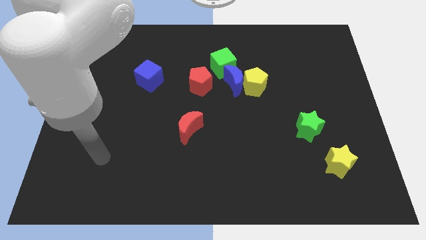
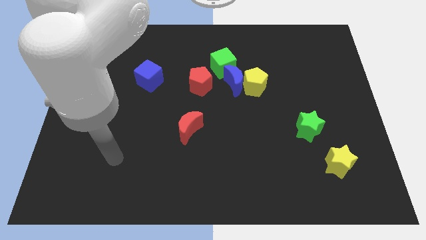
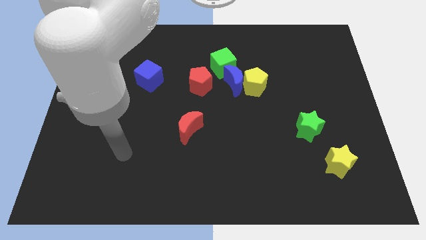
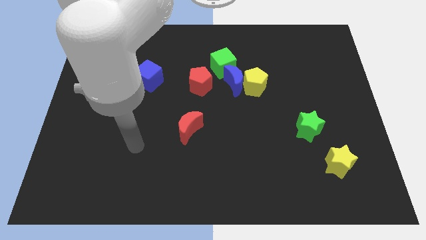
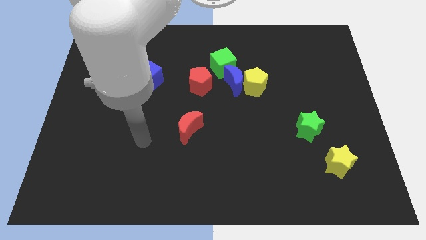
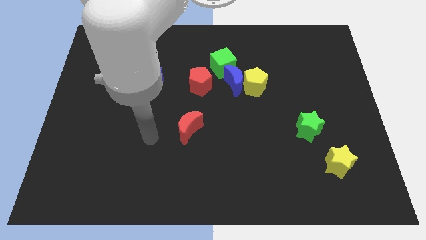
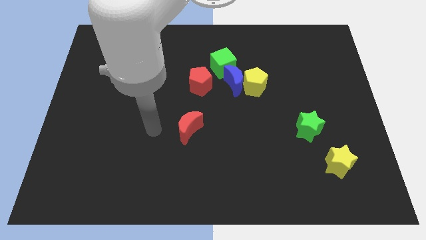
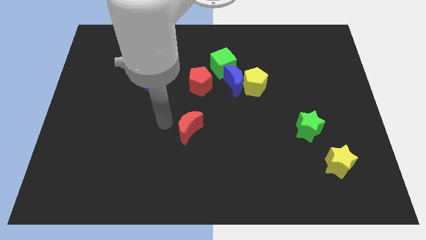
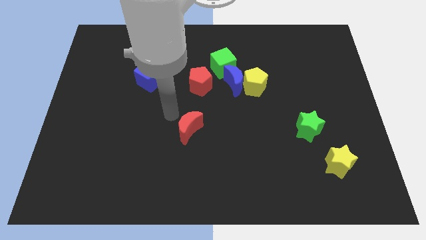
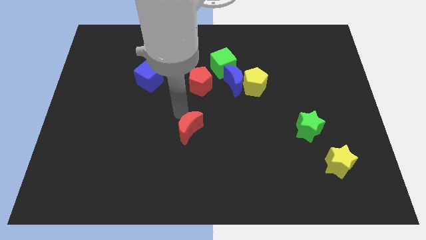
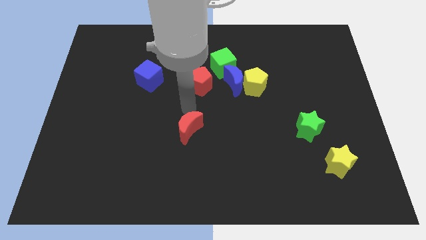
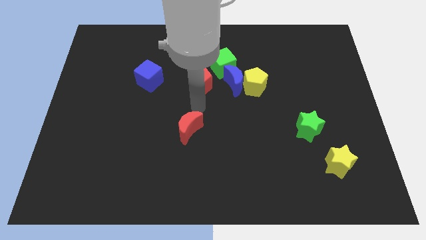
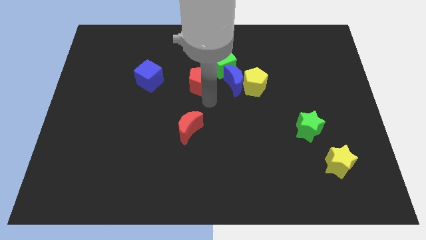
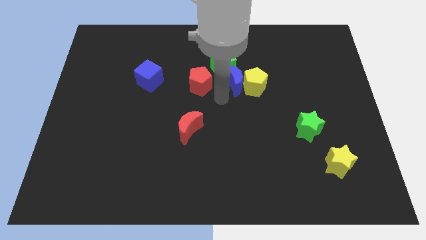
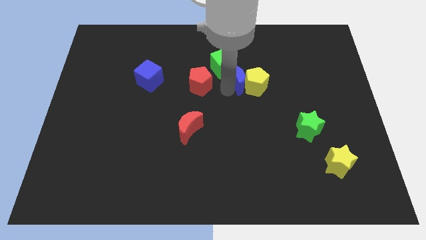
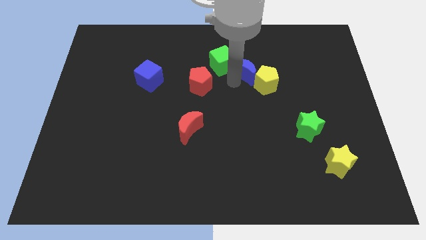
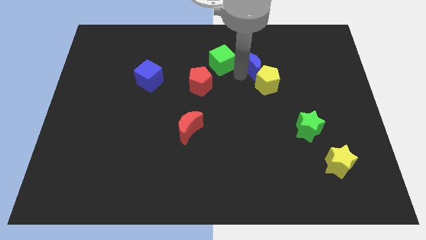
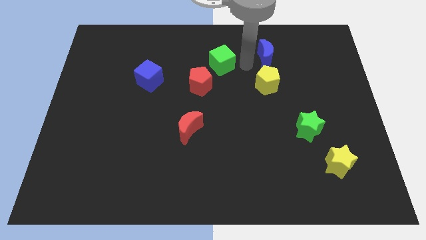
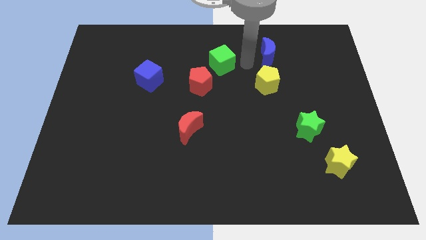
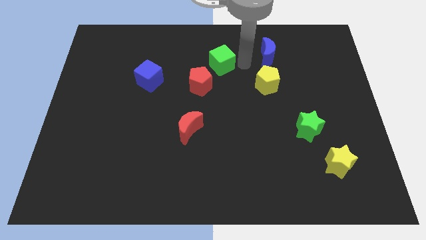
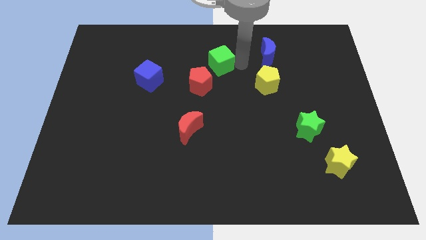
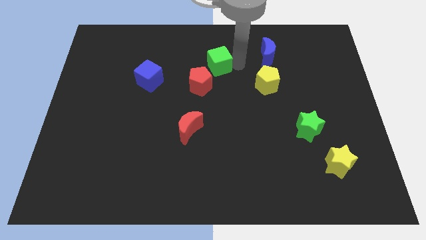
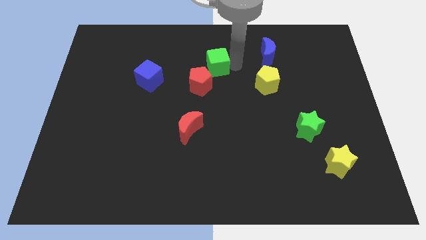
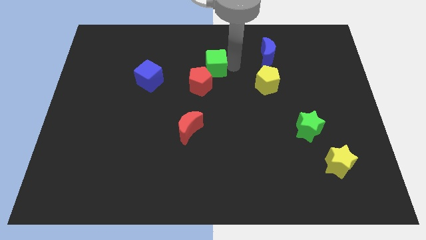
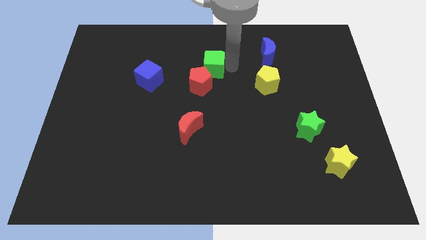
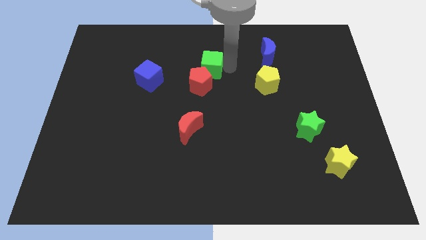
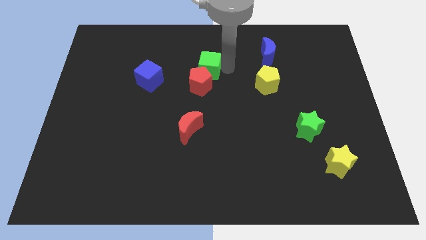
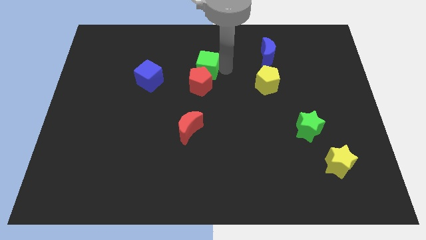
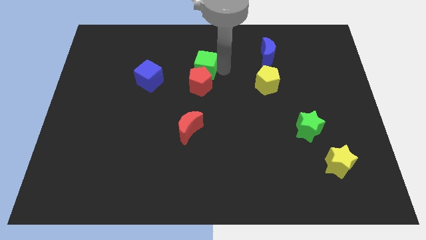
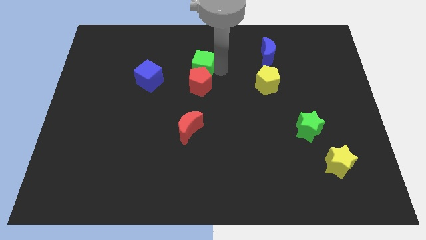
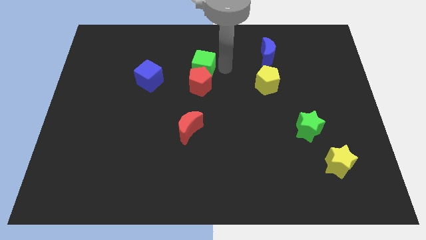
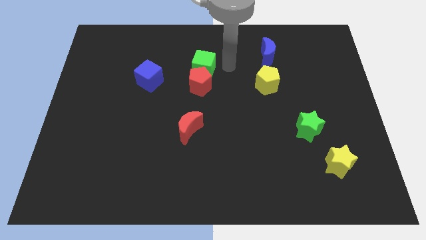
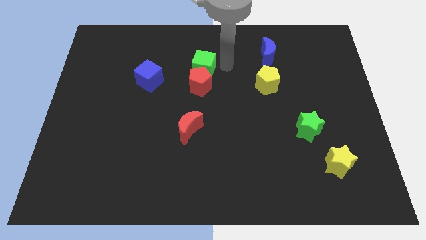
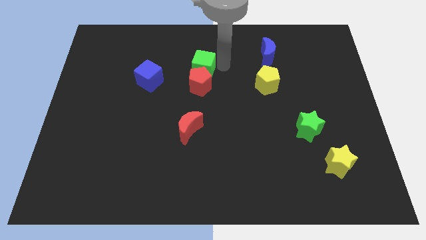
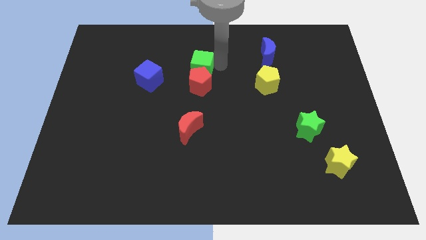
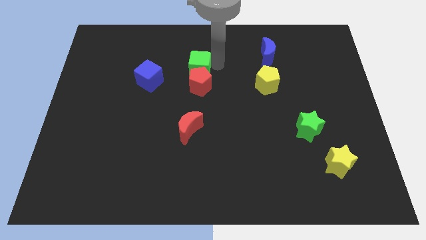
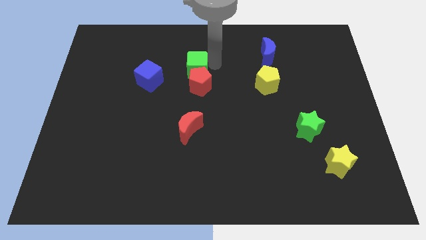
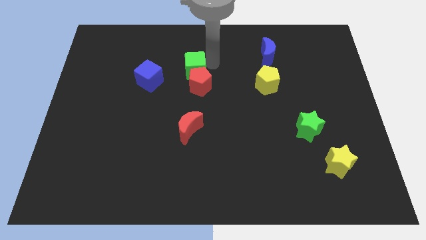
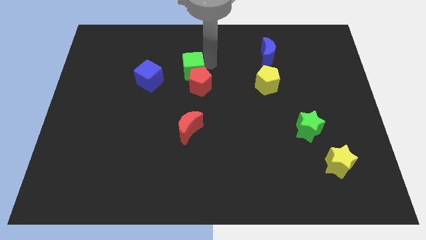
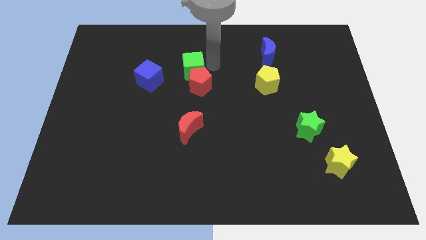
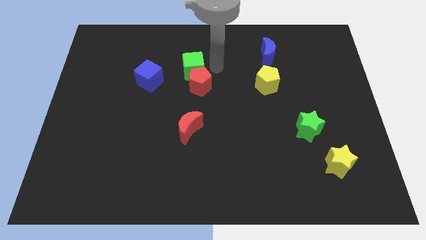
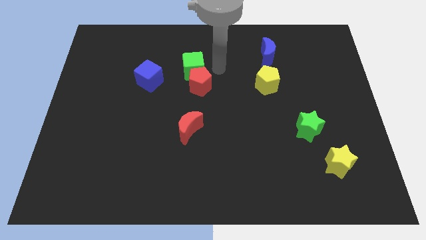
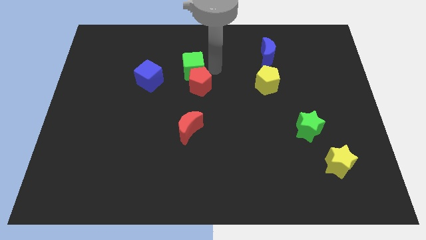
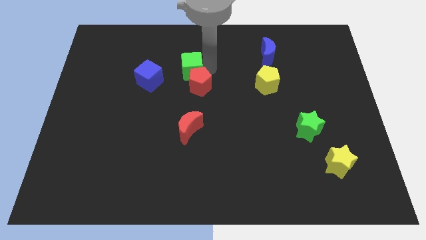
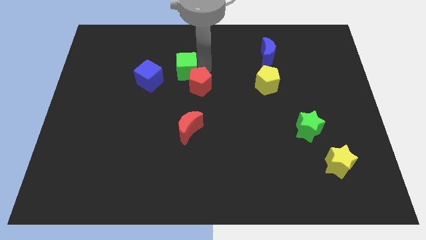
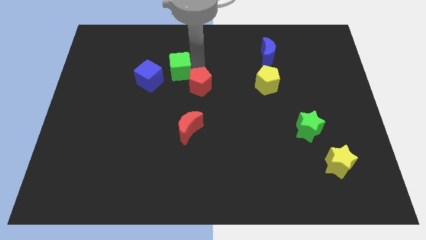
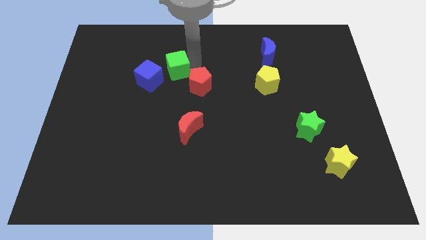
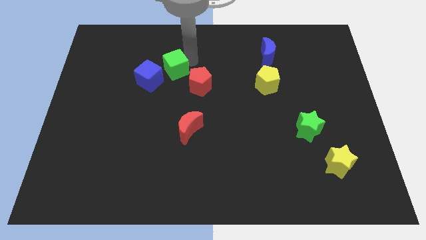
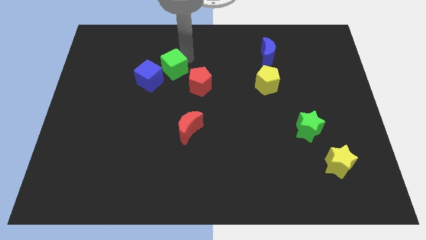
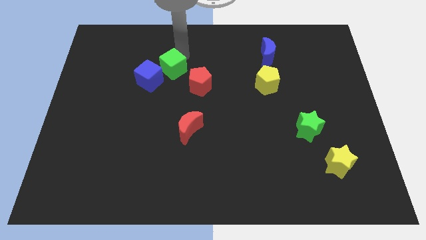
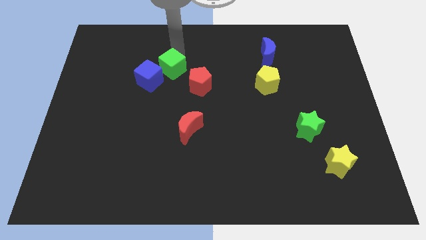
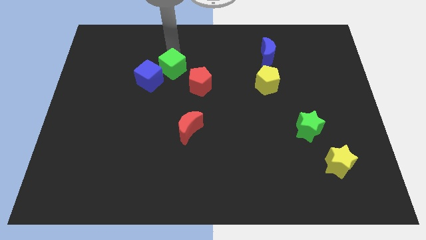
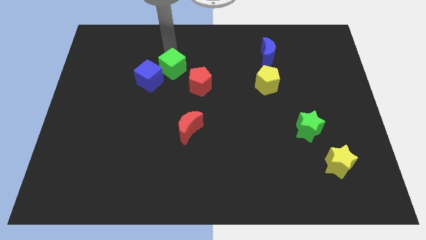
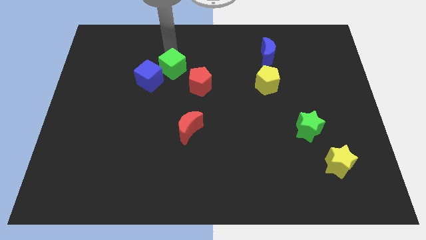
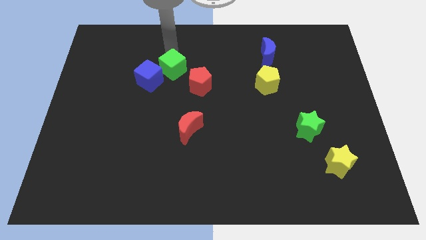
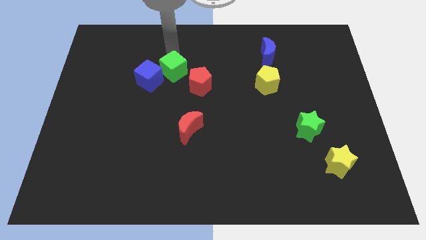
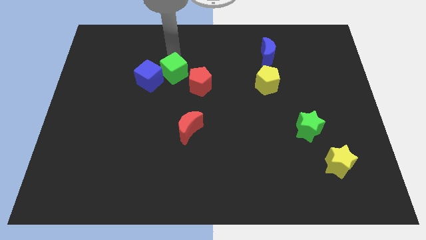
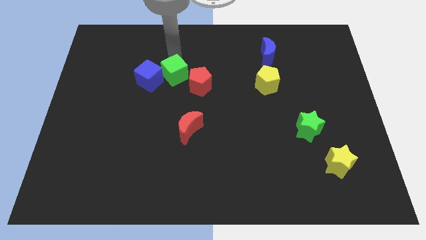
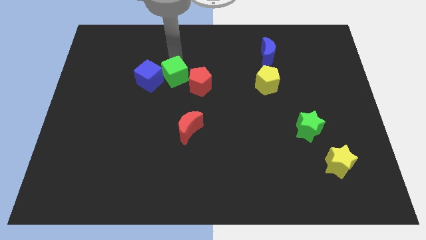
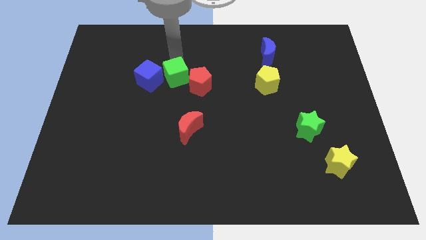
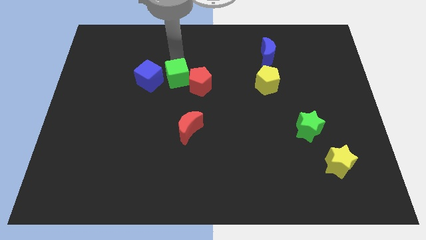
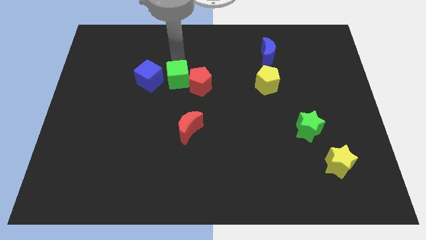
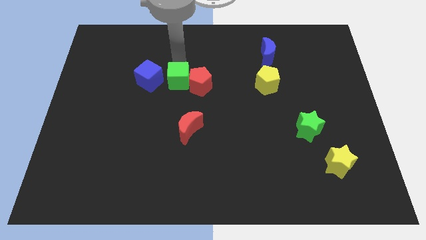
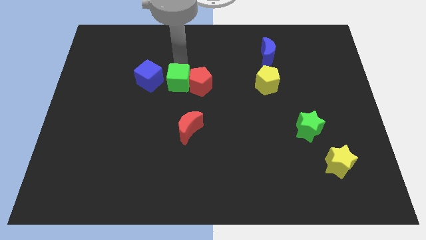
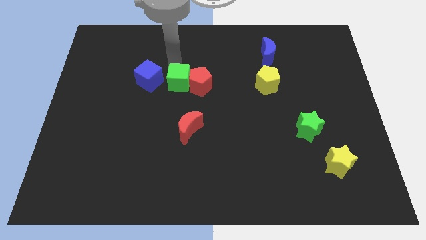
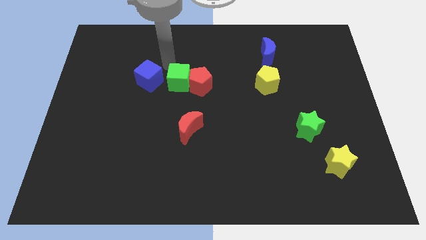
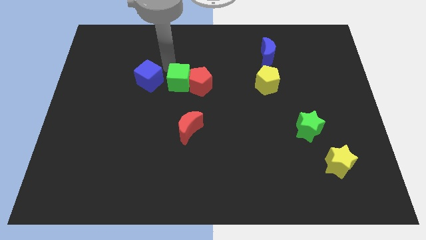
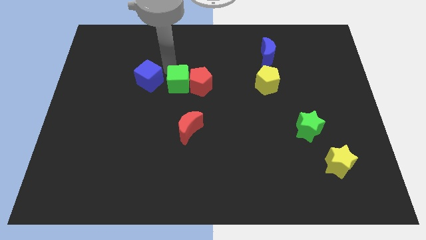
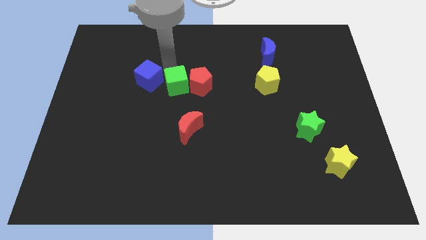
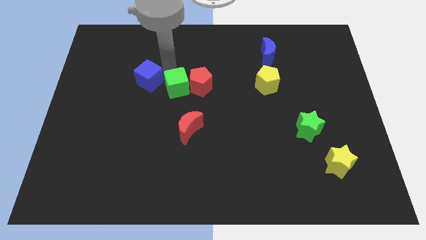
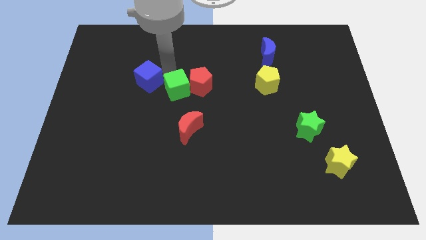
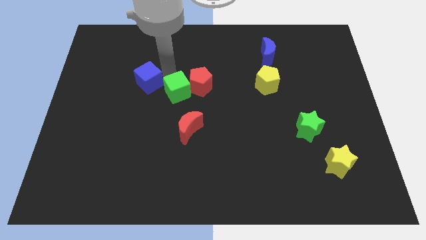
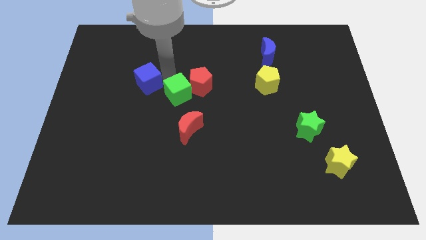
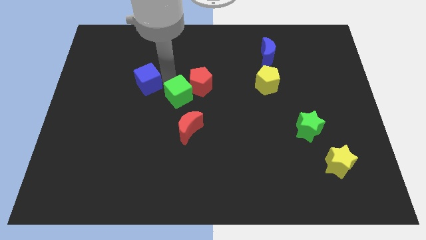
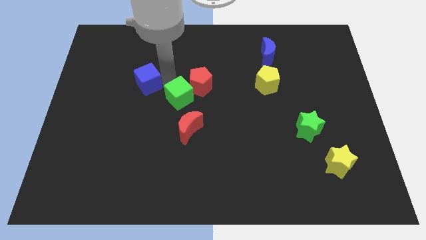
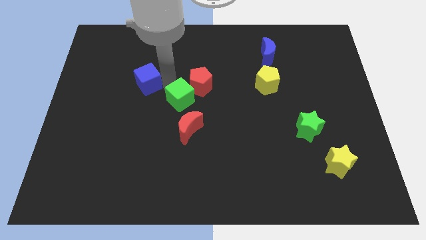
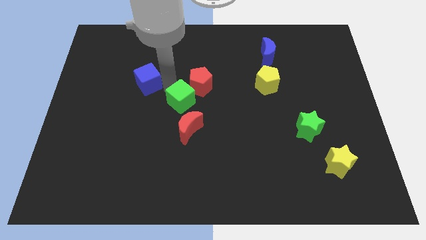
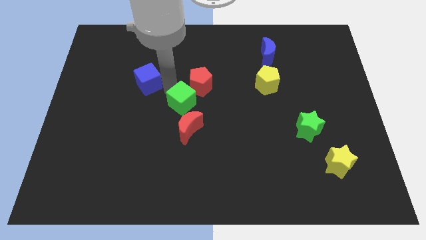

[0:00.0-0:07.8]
move the green cube down slightly
